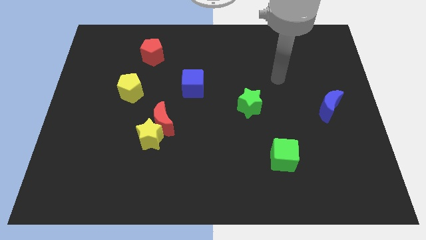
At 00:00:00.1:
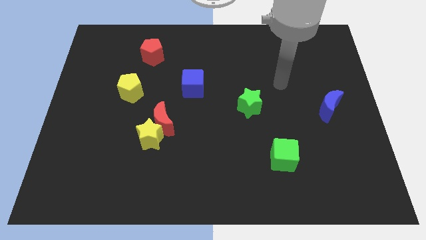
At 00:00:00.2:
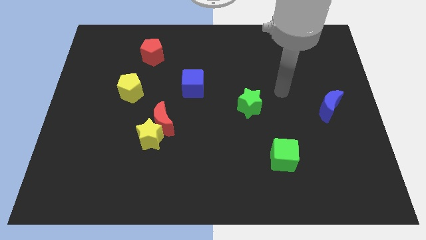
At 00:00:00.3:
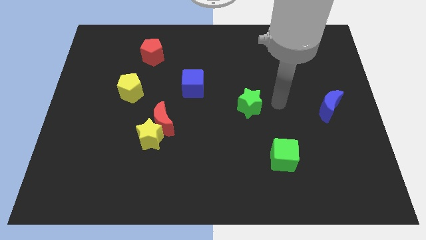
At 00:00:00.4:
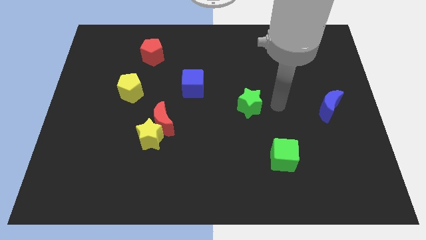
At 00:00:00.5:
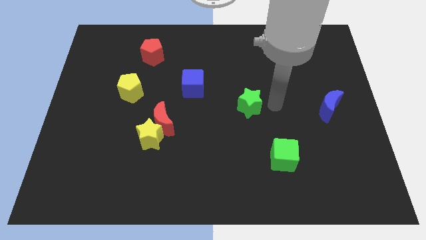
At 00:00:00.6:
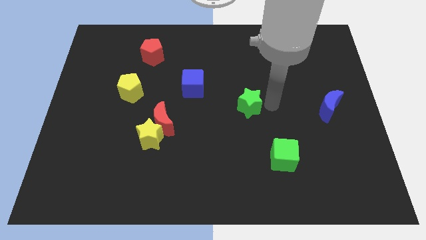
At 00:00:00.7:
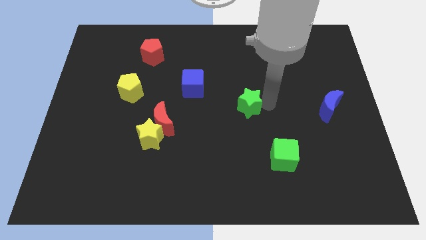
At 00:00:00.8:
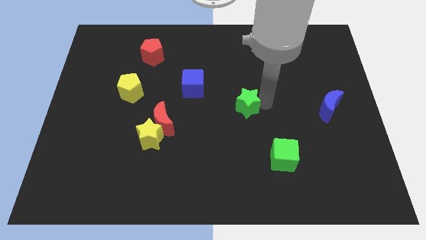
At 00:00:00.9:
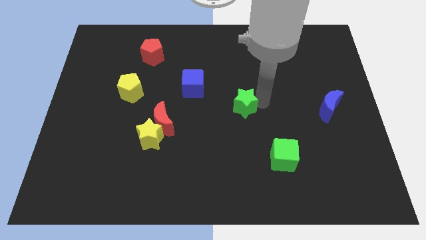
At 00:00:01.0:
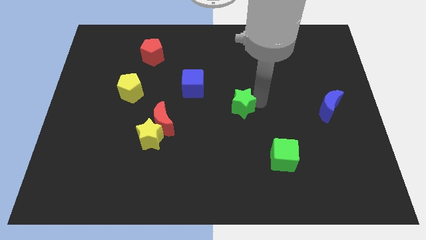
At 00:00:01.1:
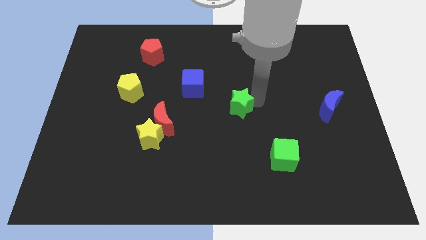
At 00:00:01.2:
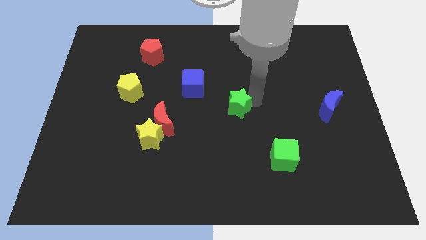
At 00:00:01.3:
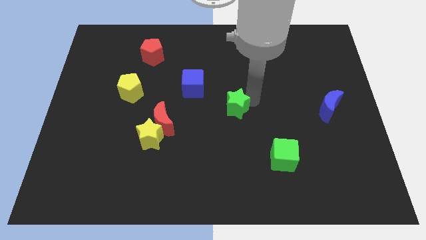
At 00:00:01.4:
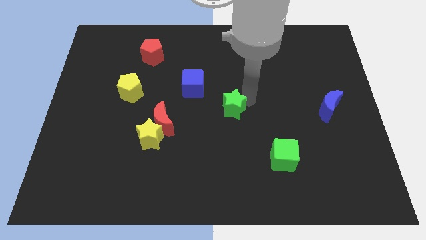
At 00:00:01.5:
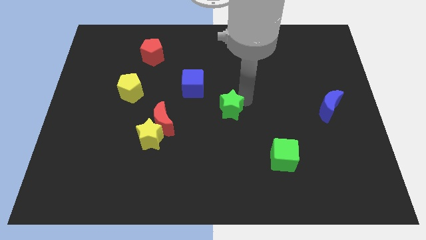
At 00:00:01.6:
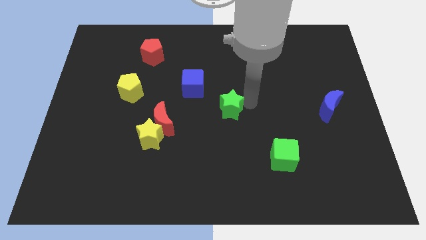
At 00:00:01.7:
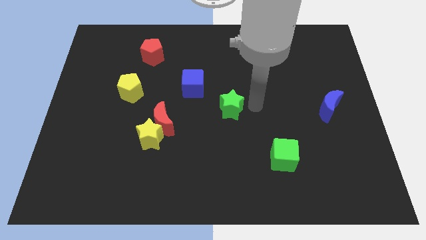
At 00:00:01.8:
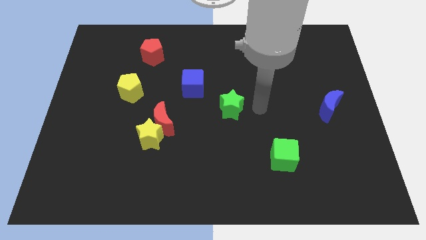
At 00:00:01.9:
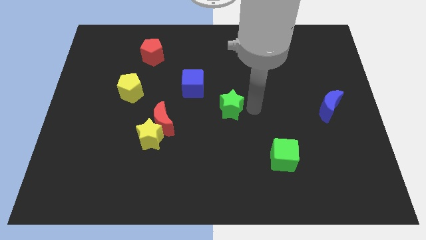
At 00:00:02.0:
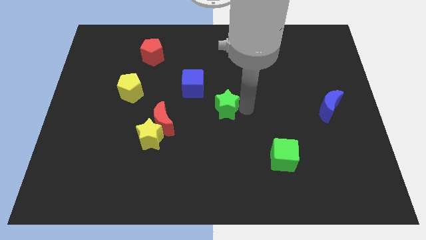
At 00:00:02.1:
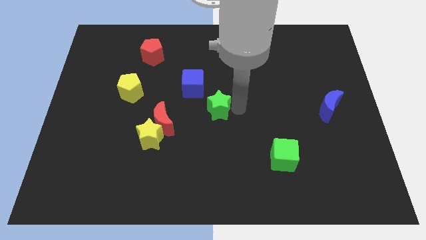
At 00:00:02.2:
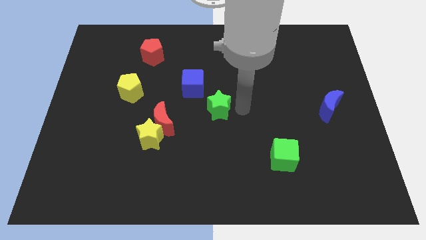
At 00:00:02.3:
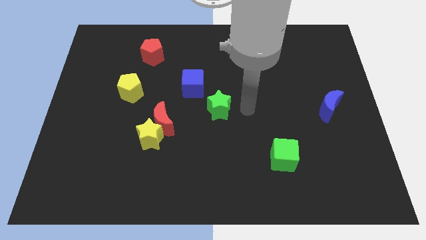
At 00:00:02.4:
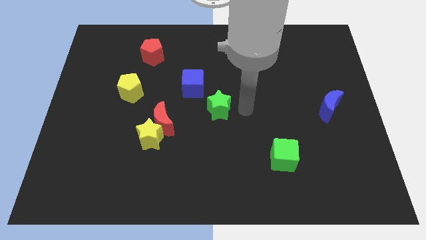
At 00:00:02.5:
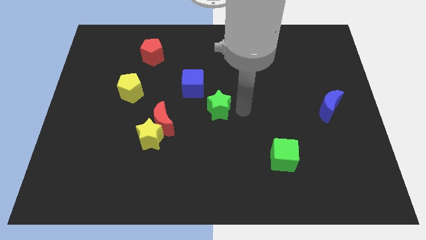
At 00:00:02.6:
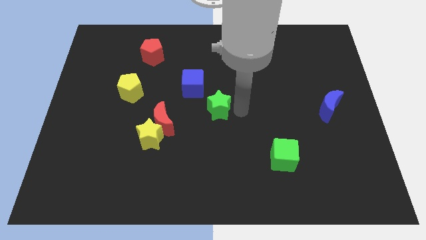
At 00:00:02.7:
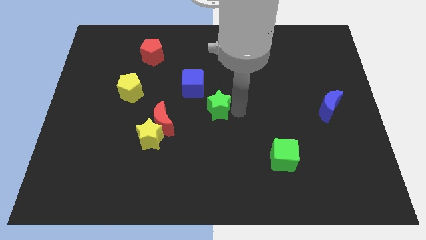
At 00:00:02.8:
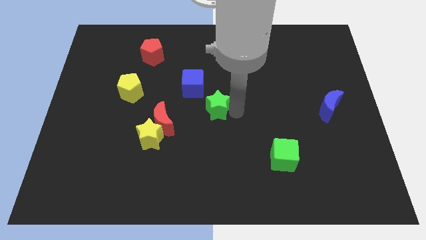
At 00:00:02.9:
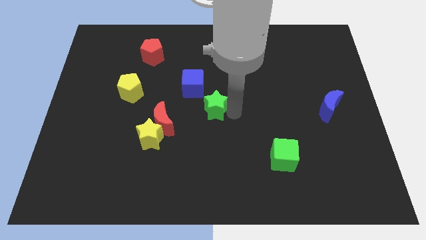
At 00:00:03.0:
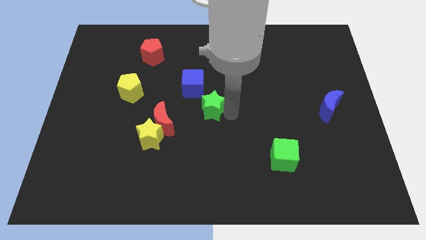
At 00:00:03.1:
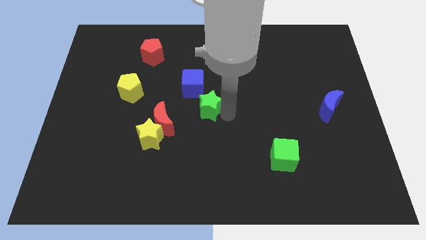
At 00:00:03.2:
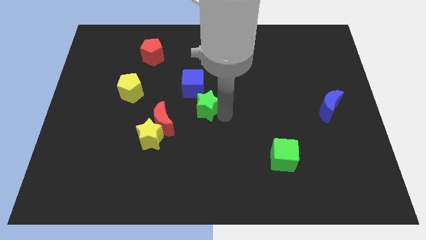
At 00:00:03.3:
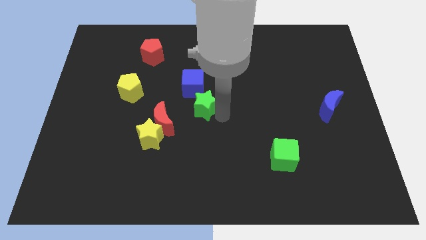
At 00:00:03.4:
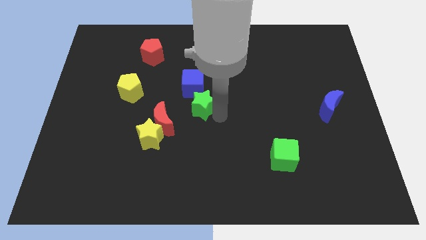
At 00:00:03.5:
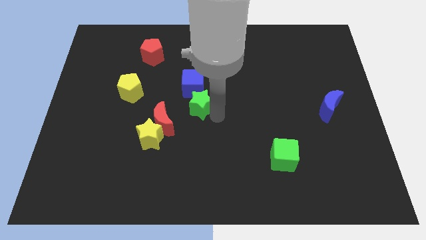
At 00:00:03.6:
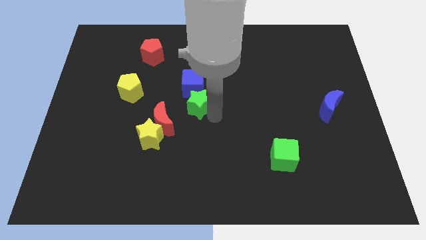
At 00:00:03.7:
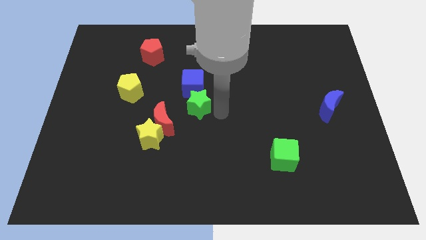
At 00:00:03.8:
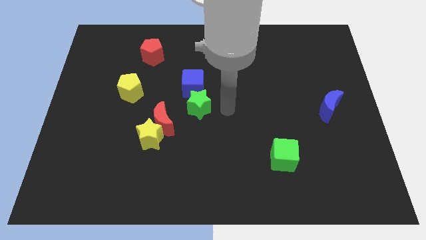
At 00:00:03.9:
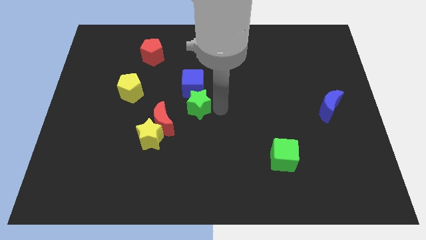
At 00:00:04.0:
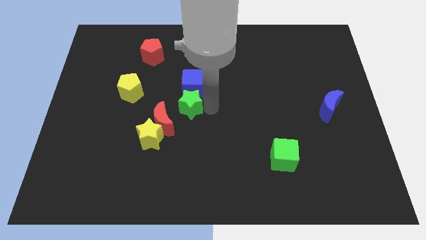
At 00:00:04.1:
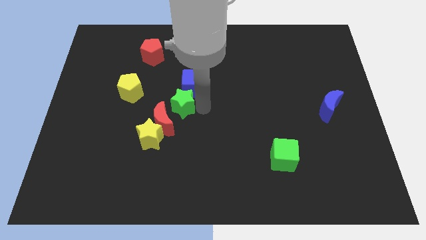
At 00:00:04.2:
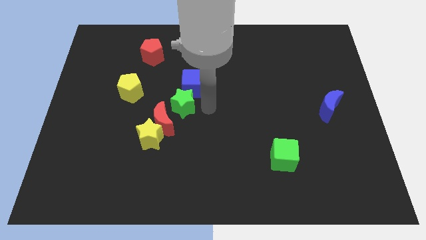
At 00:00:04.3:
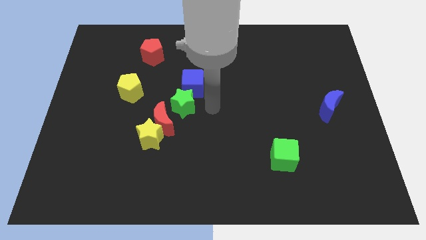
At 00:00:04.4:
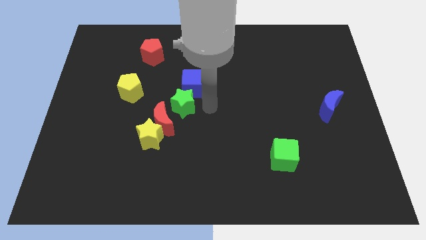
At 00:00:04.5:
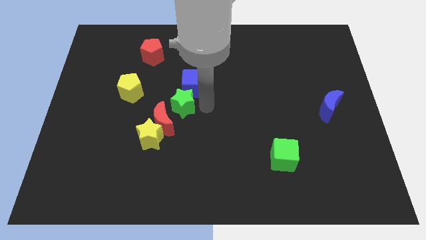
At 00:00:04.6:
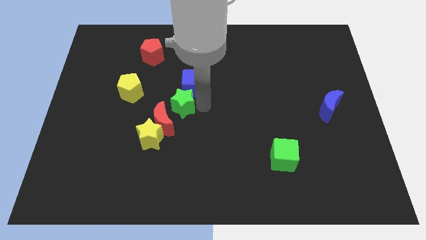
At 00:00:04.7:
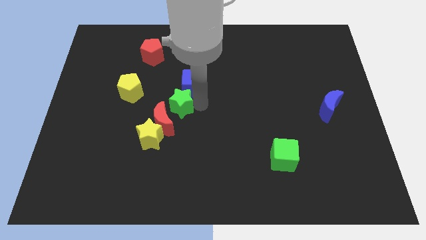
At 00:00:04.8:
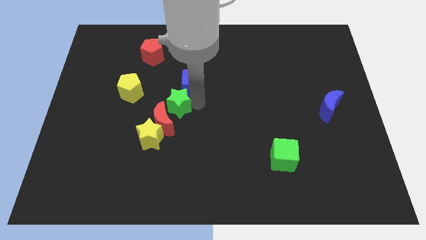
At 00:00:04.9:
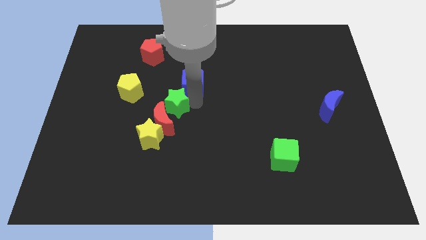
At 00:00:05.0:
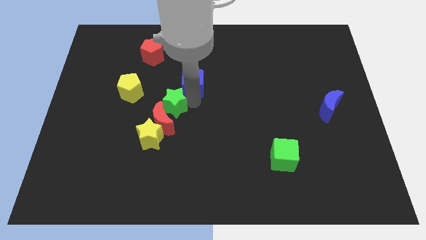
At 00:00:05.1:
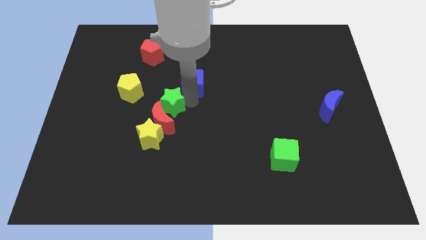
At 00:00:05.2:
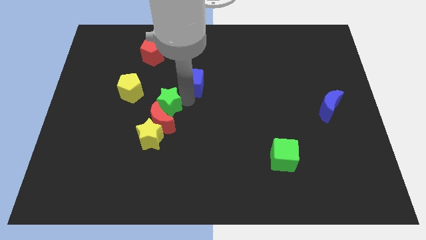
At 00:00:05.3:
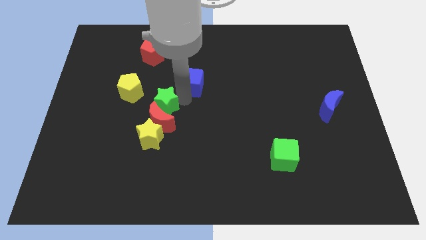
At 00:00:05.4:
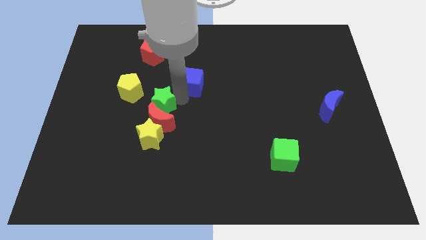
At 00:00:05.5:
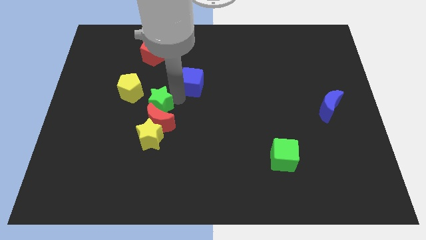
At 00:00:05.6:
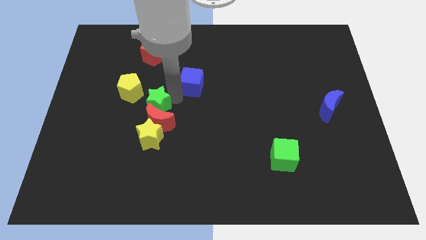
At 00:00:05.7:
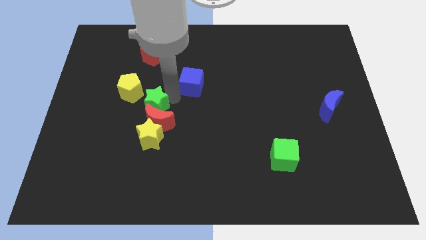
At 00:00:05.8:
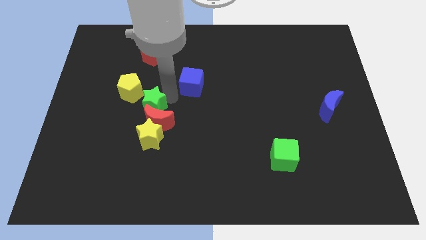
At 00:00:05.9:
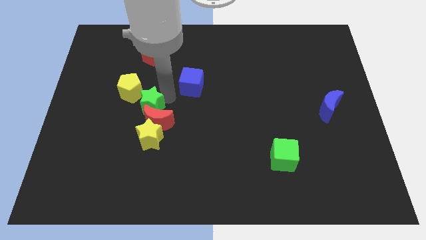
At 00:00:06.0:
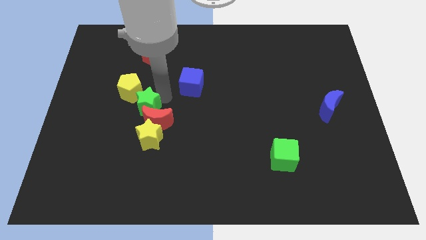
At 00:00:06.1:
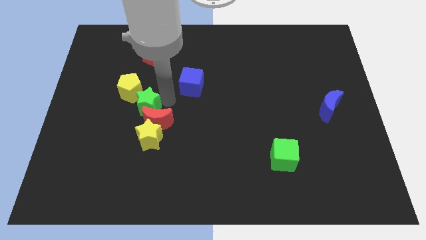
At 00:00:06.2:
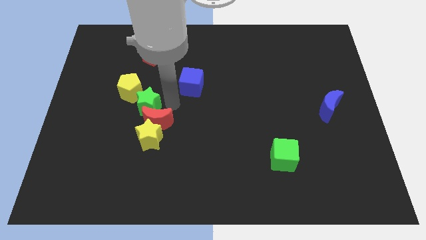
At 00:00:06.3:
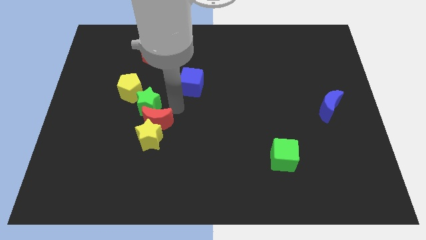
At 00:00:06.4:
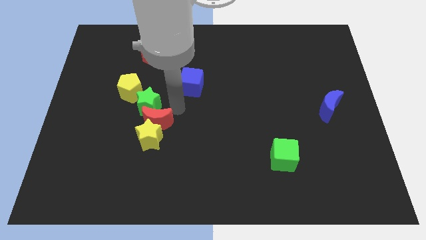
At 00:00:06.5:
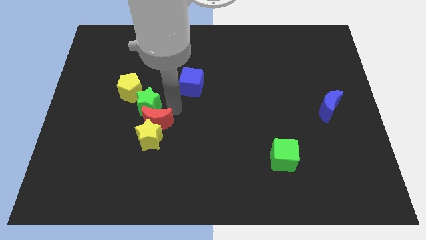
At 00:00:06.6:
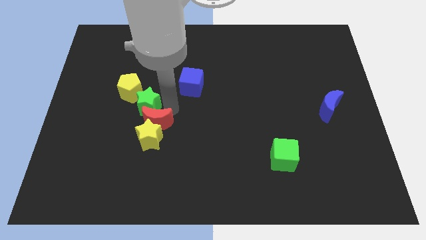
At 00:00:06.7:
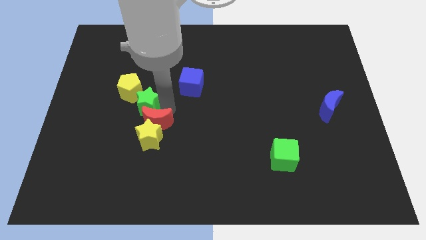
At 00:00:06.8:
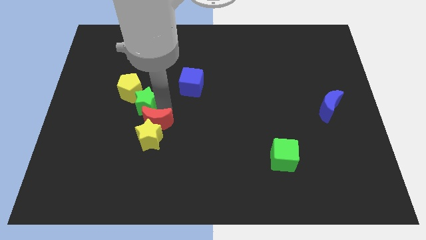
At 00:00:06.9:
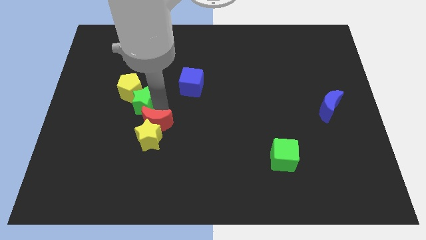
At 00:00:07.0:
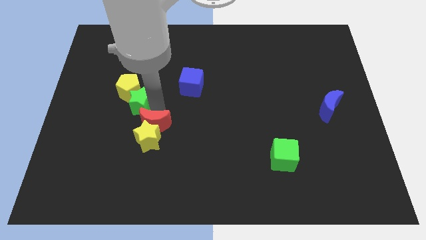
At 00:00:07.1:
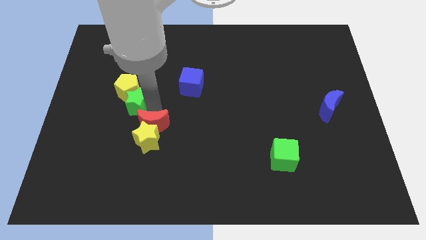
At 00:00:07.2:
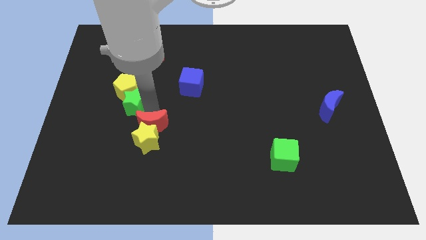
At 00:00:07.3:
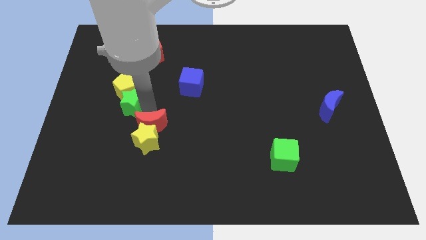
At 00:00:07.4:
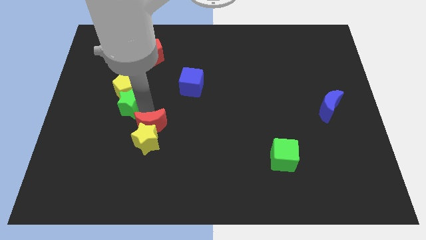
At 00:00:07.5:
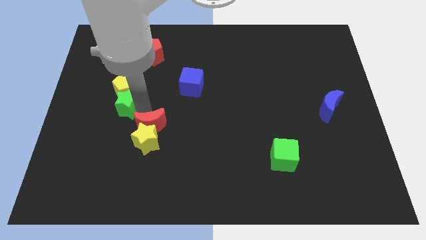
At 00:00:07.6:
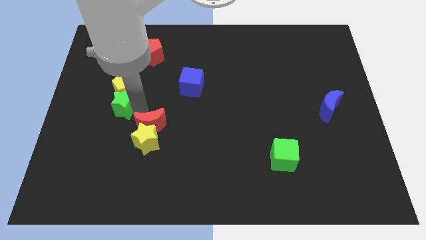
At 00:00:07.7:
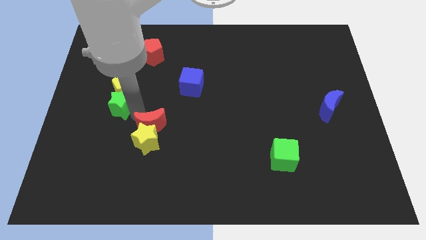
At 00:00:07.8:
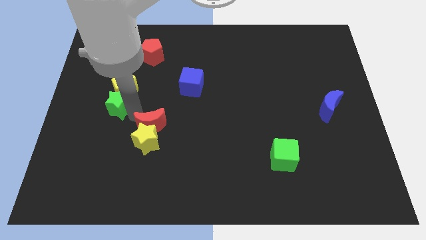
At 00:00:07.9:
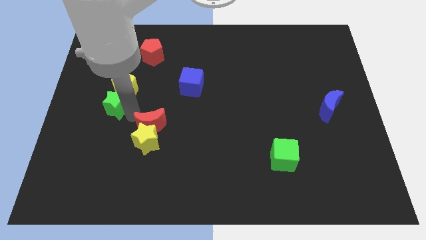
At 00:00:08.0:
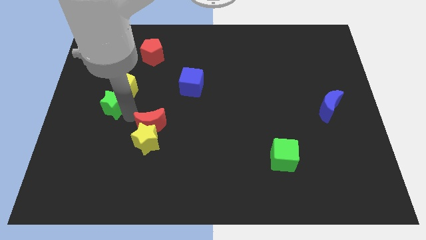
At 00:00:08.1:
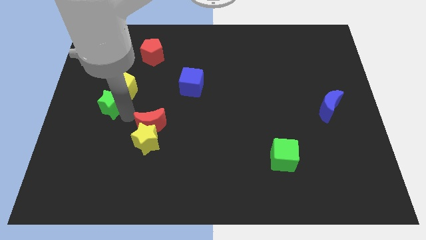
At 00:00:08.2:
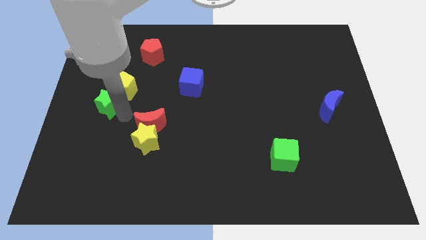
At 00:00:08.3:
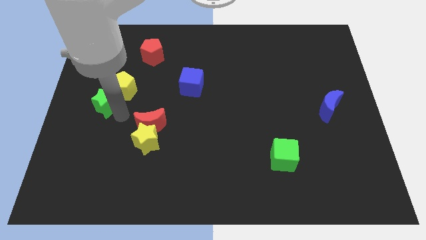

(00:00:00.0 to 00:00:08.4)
move the green star to the left side
